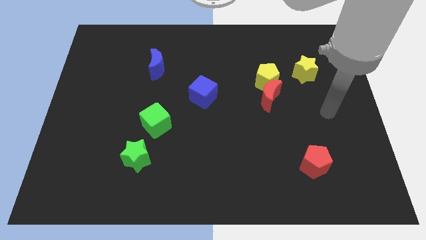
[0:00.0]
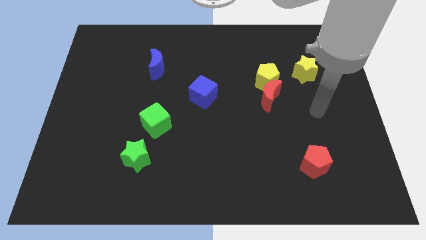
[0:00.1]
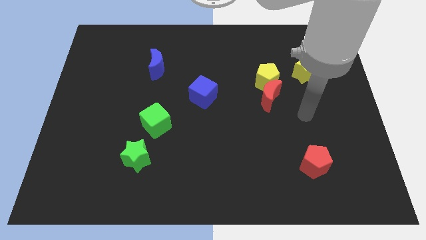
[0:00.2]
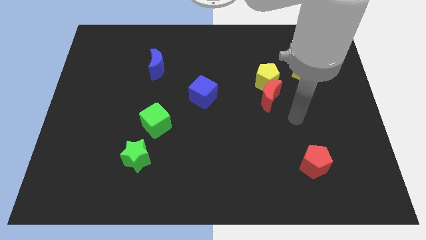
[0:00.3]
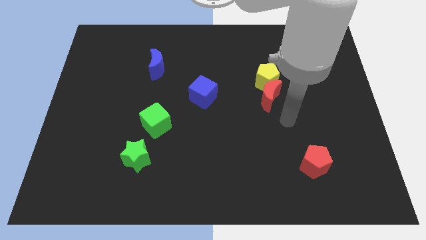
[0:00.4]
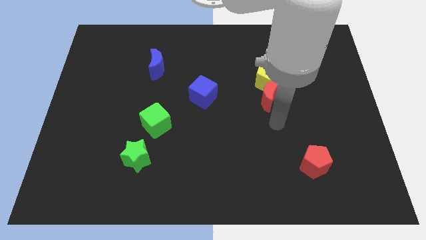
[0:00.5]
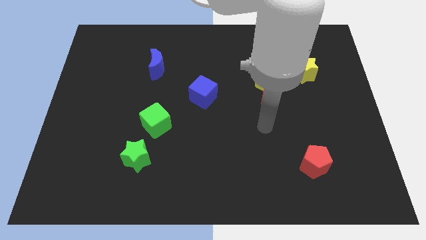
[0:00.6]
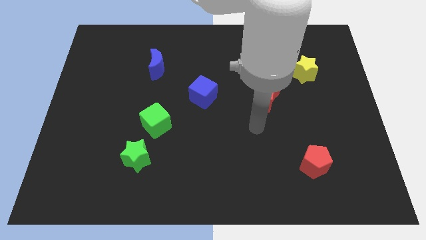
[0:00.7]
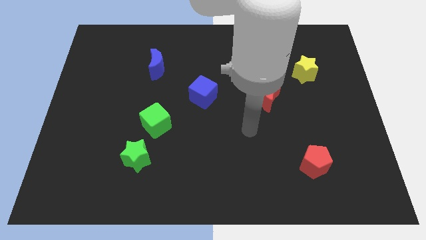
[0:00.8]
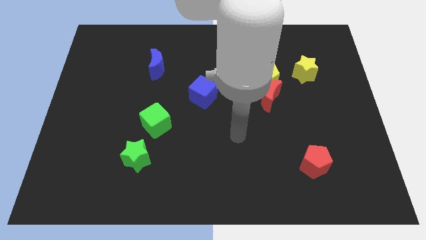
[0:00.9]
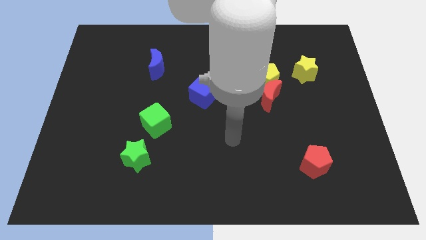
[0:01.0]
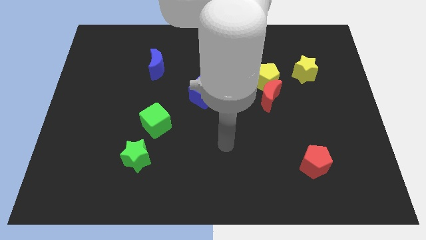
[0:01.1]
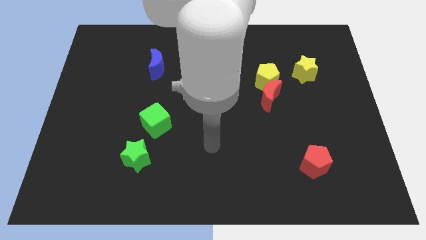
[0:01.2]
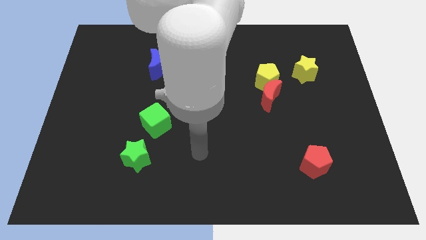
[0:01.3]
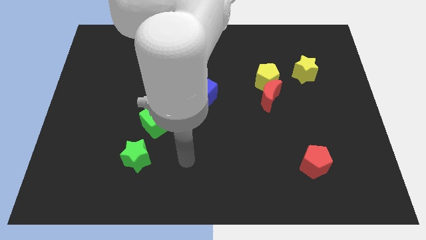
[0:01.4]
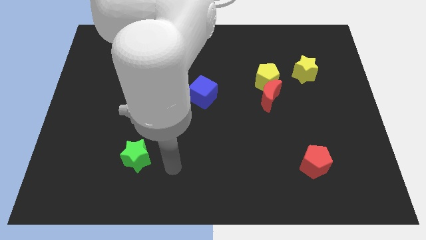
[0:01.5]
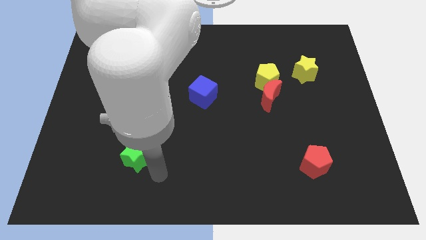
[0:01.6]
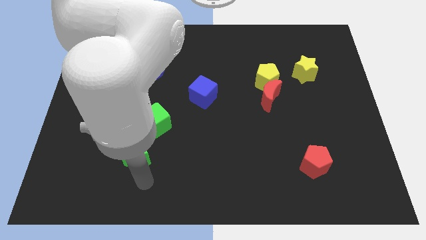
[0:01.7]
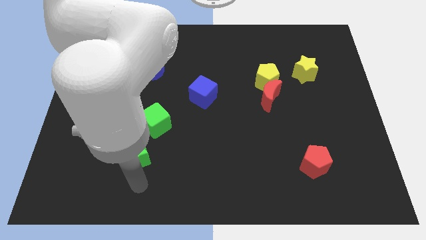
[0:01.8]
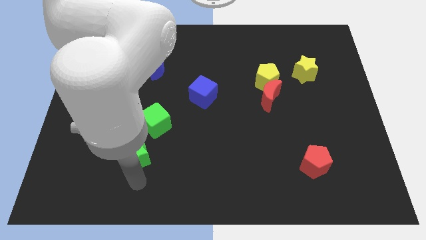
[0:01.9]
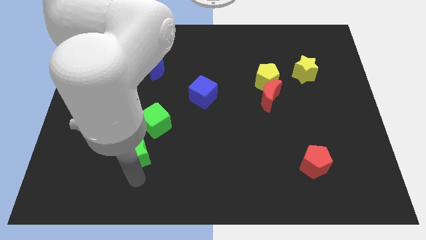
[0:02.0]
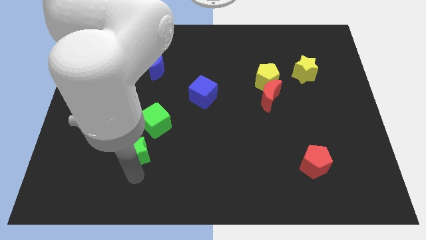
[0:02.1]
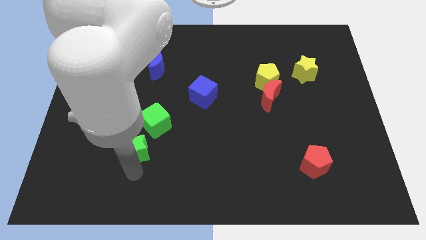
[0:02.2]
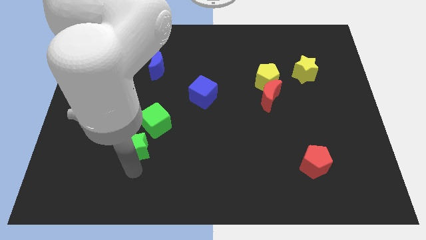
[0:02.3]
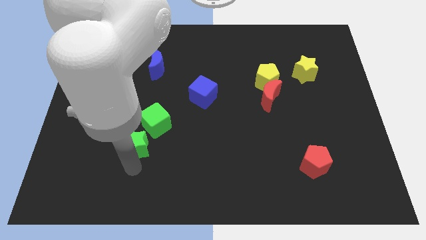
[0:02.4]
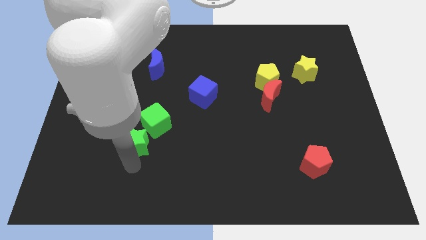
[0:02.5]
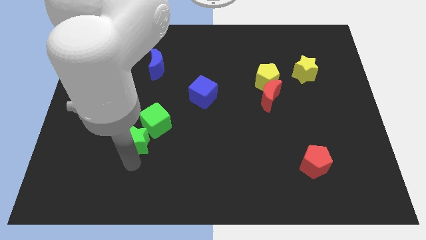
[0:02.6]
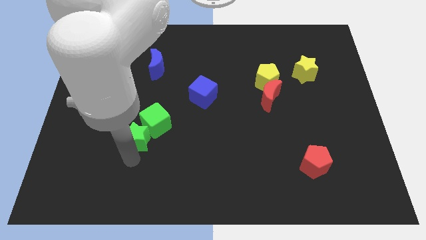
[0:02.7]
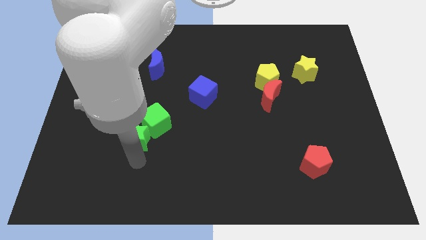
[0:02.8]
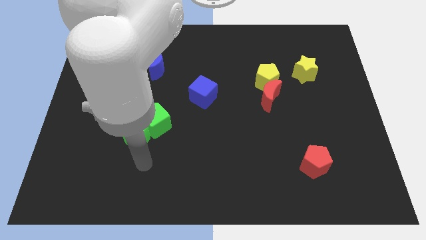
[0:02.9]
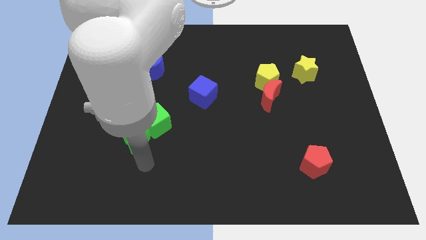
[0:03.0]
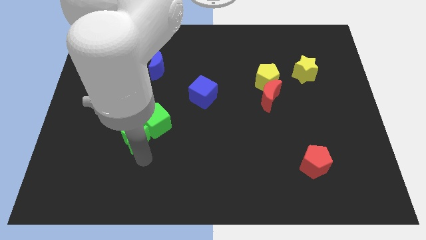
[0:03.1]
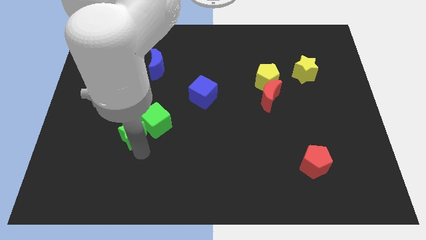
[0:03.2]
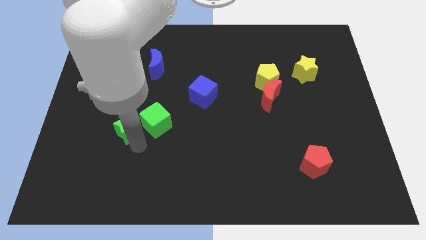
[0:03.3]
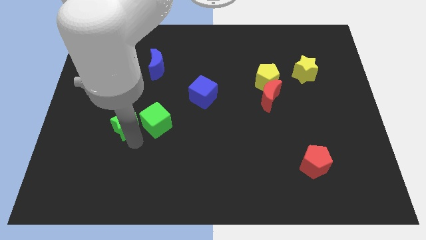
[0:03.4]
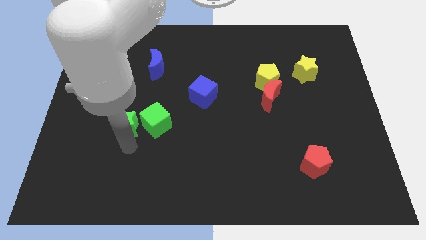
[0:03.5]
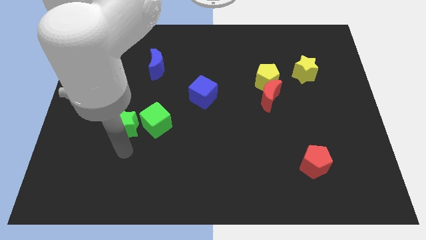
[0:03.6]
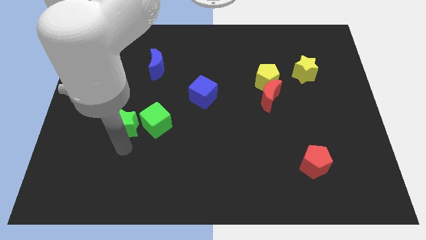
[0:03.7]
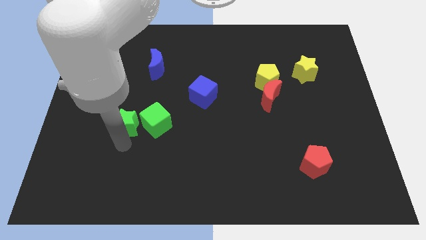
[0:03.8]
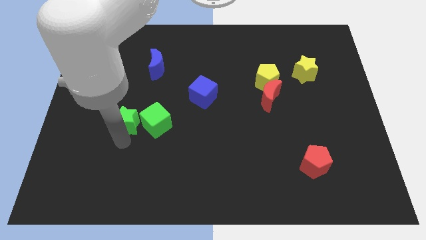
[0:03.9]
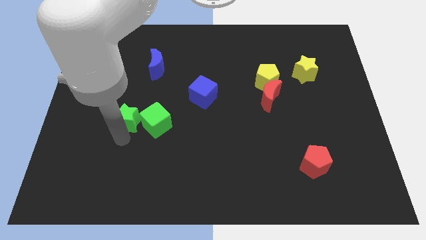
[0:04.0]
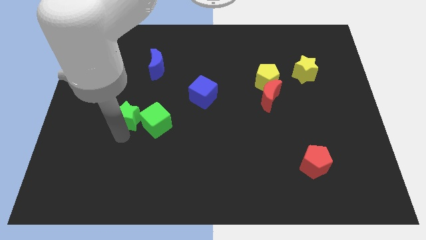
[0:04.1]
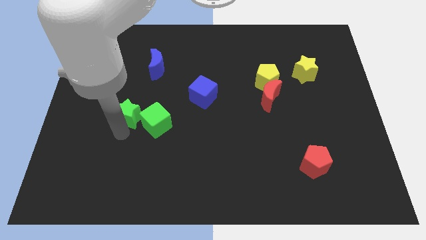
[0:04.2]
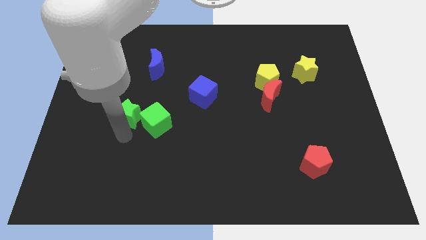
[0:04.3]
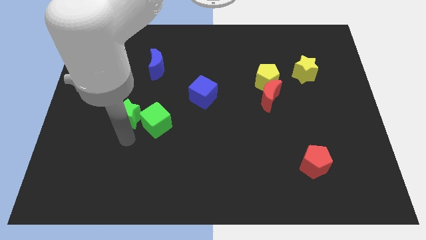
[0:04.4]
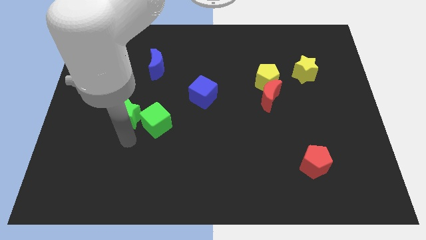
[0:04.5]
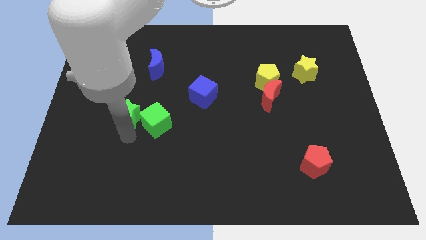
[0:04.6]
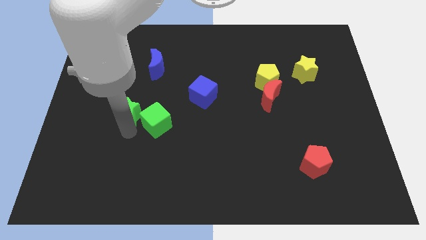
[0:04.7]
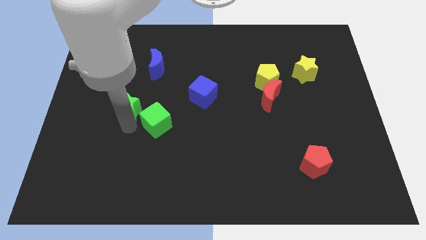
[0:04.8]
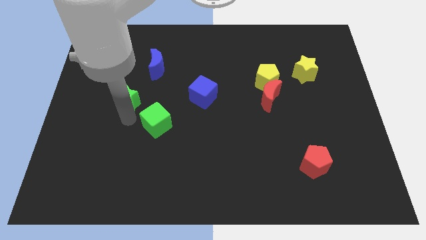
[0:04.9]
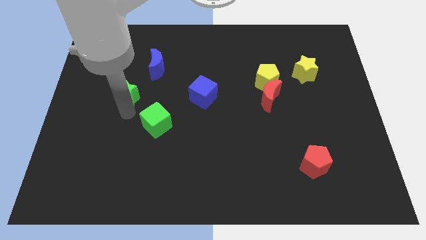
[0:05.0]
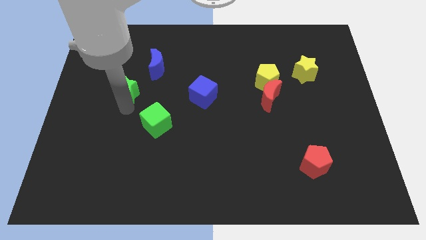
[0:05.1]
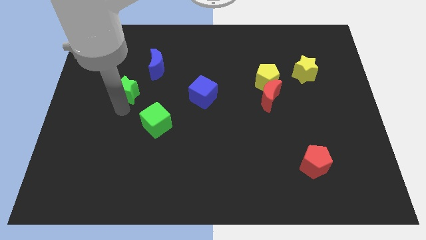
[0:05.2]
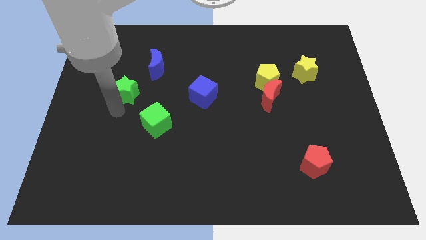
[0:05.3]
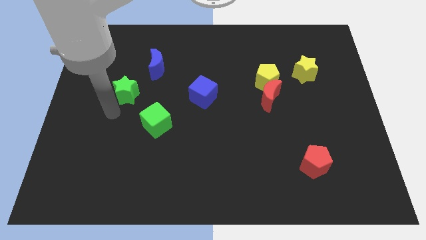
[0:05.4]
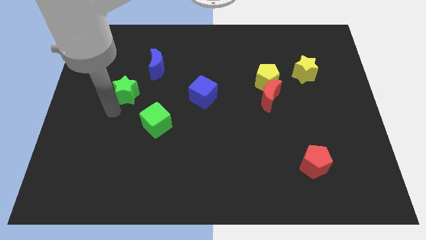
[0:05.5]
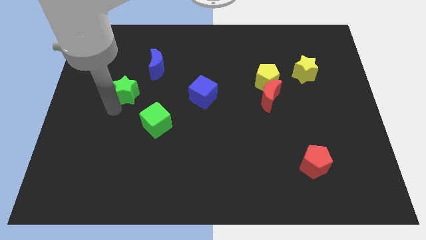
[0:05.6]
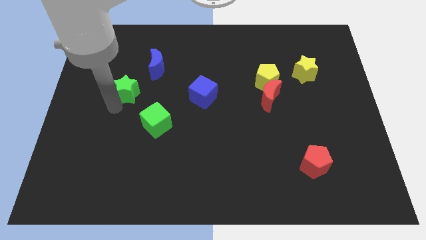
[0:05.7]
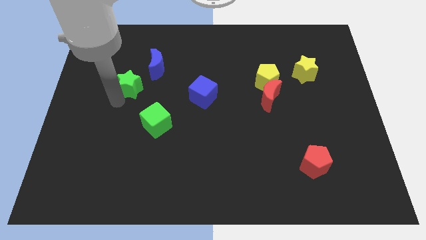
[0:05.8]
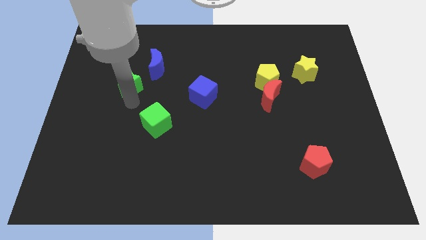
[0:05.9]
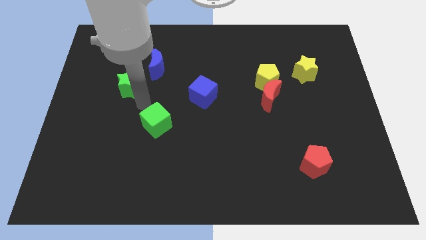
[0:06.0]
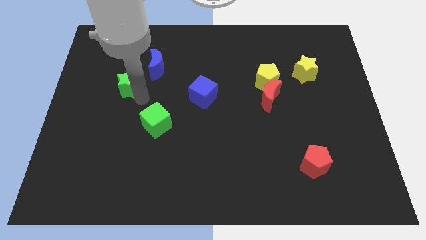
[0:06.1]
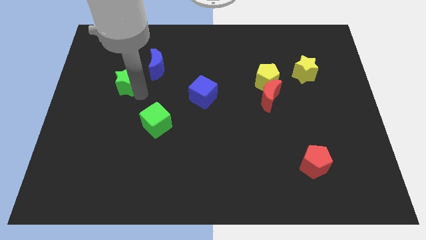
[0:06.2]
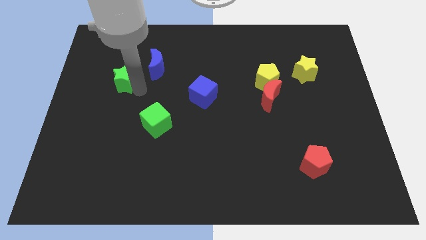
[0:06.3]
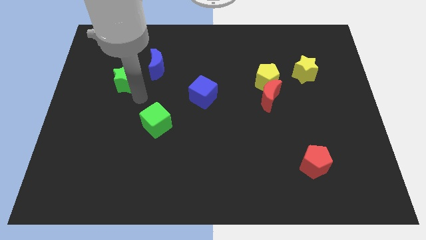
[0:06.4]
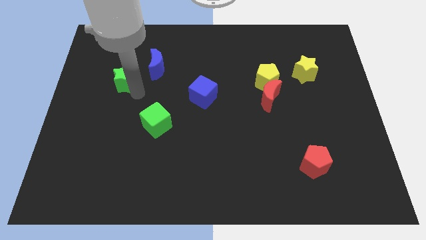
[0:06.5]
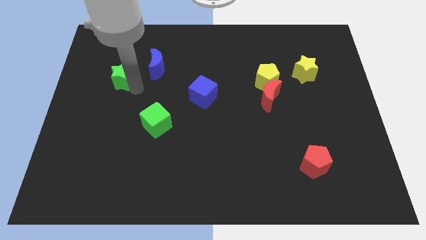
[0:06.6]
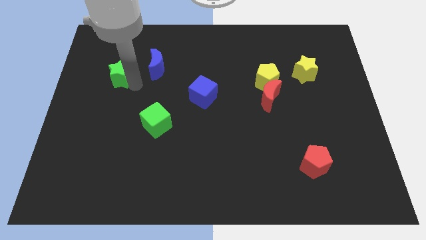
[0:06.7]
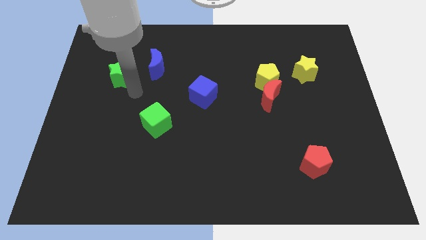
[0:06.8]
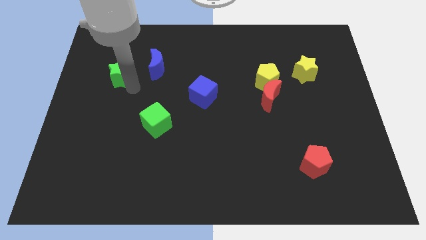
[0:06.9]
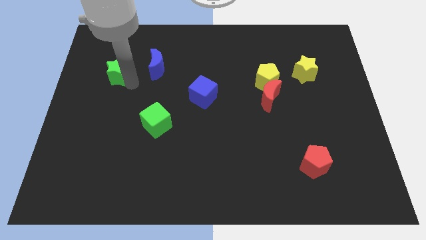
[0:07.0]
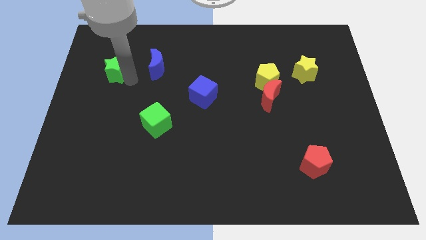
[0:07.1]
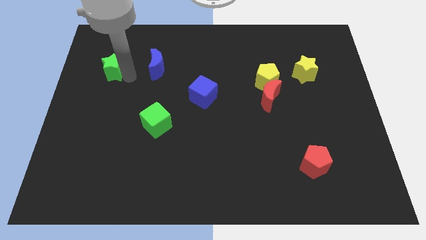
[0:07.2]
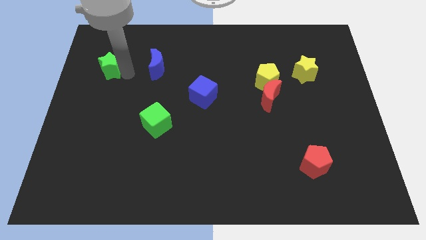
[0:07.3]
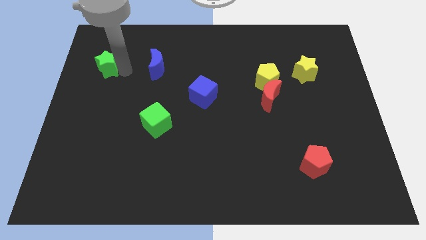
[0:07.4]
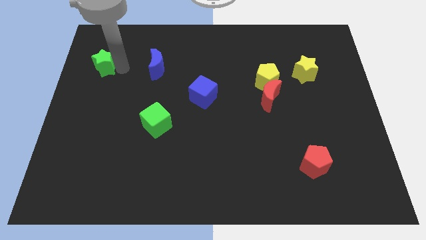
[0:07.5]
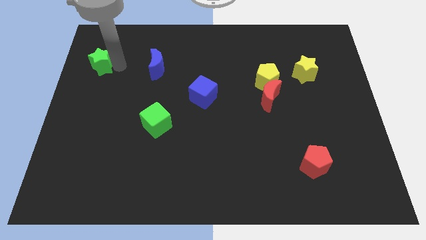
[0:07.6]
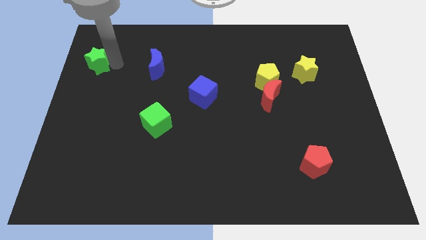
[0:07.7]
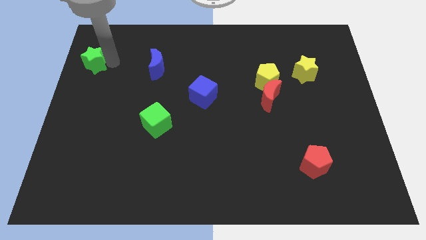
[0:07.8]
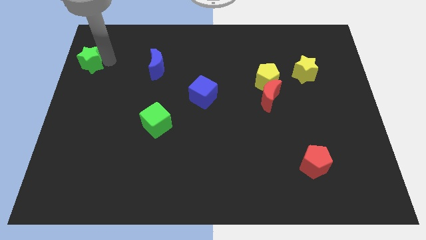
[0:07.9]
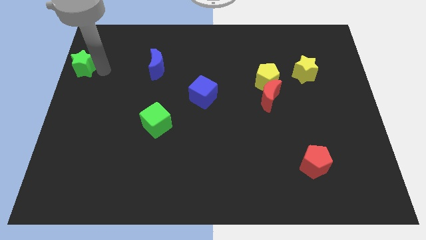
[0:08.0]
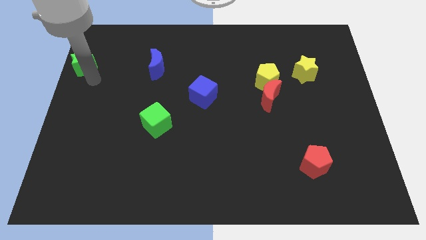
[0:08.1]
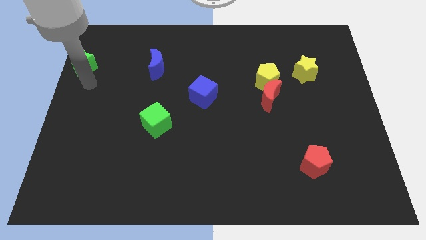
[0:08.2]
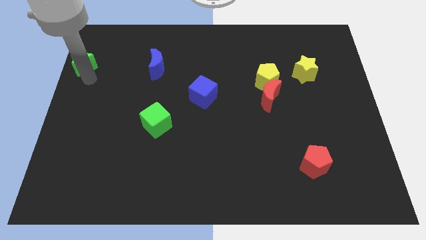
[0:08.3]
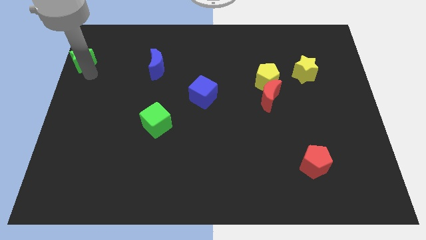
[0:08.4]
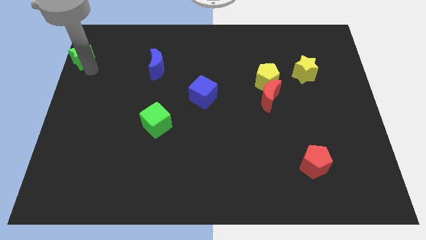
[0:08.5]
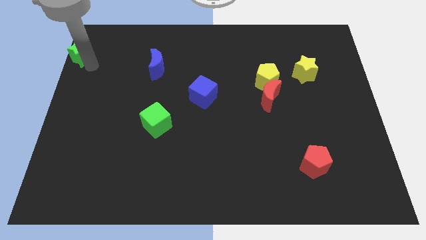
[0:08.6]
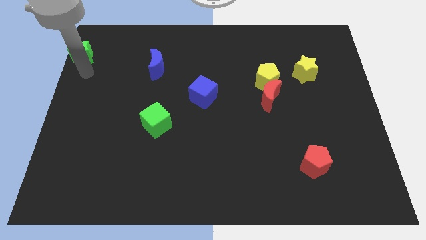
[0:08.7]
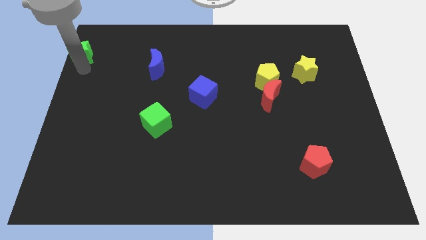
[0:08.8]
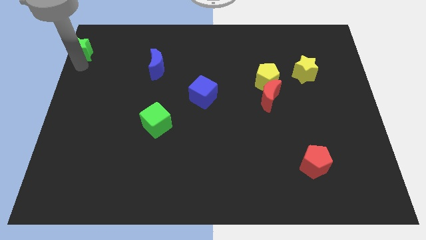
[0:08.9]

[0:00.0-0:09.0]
slide the green star to the upper left corner
